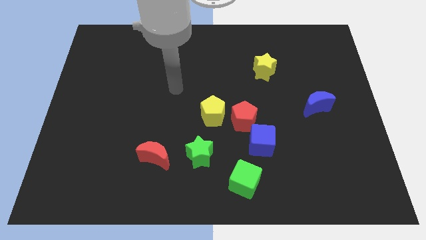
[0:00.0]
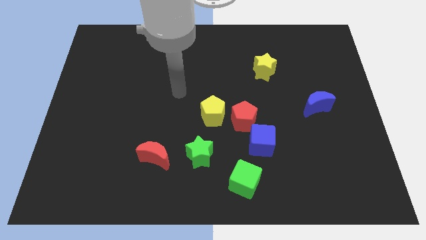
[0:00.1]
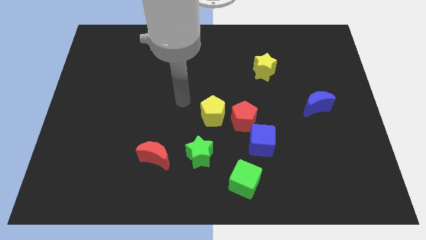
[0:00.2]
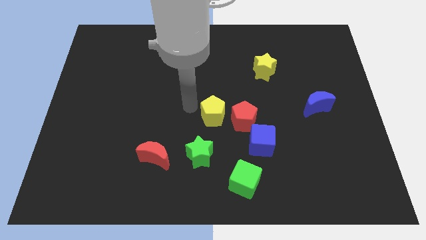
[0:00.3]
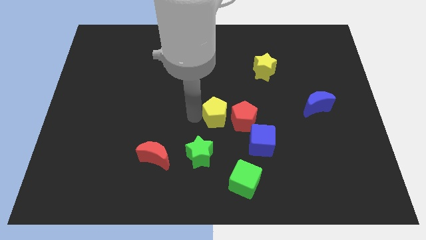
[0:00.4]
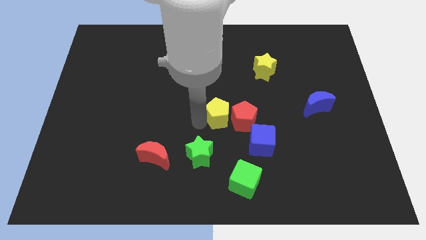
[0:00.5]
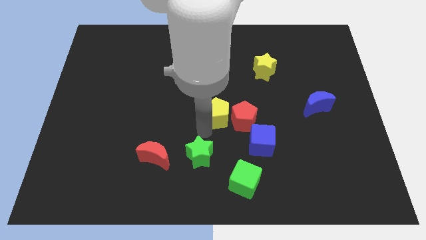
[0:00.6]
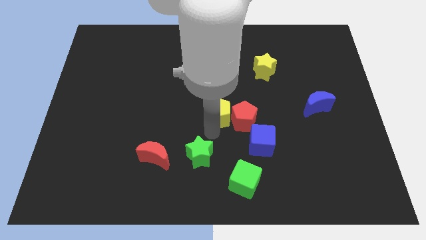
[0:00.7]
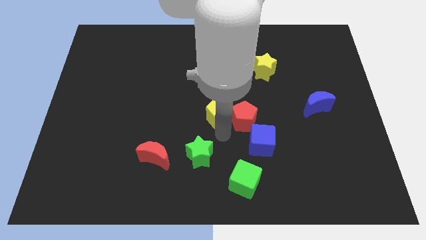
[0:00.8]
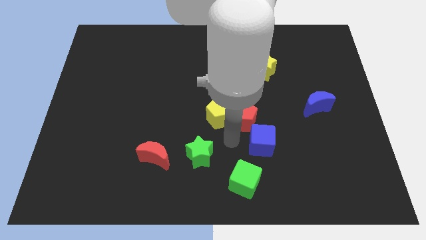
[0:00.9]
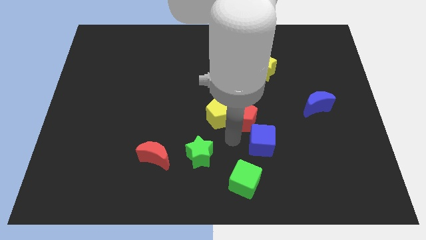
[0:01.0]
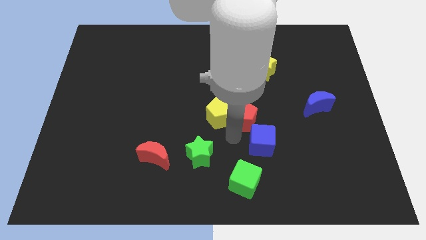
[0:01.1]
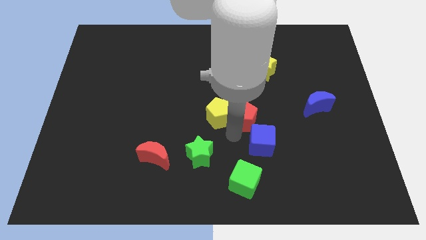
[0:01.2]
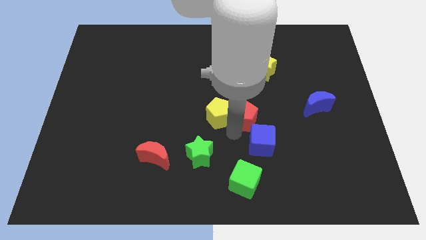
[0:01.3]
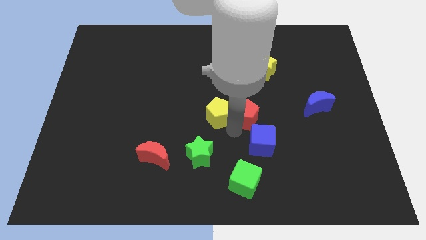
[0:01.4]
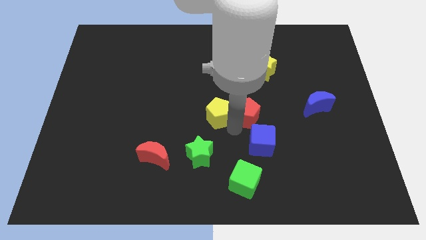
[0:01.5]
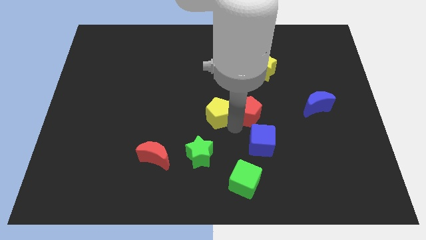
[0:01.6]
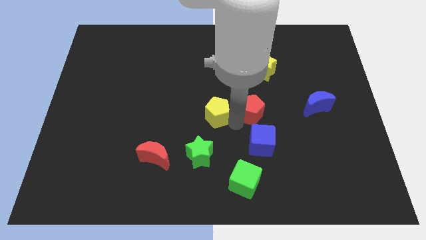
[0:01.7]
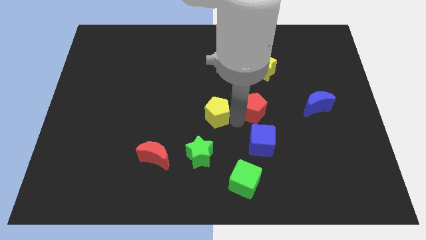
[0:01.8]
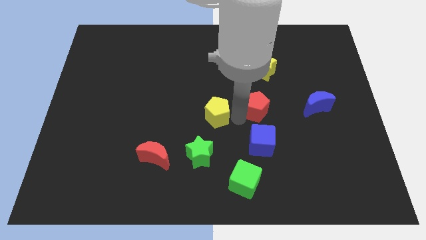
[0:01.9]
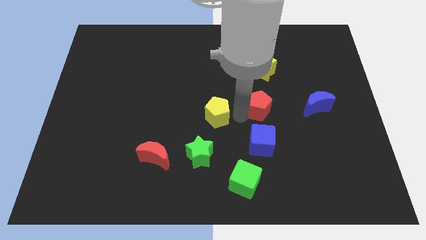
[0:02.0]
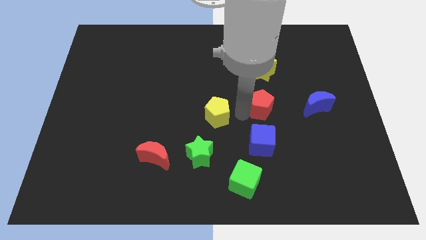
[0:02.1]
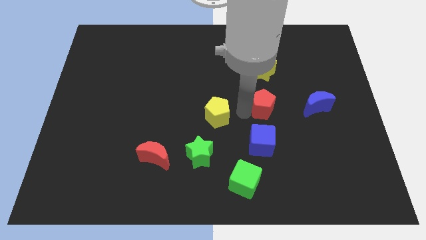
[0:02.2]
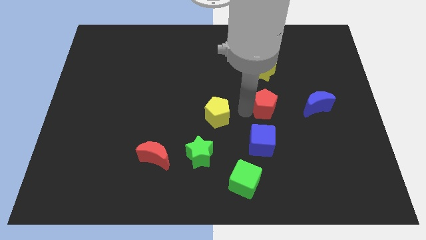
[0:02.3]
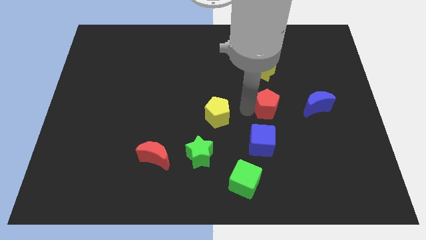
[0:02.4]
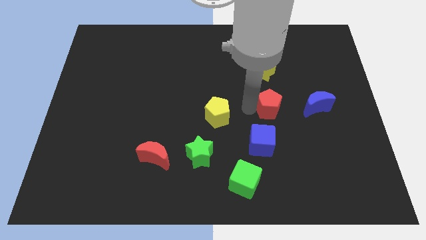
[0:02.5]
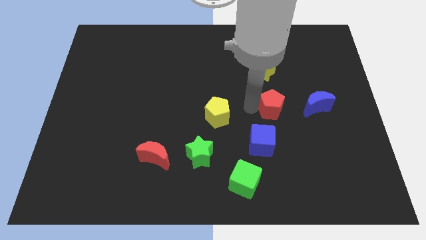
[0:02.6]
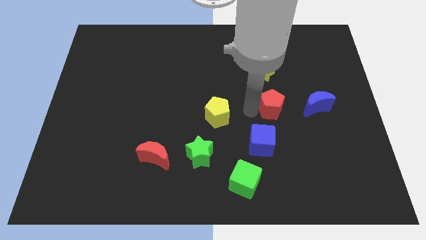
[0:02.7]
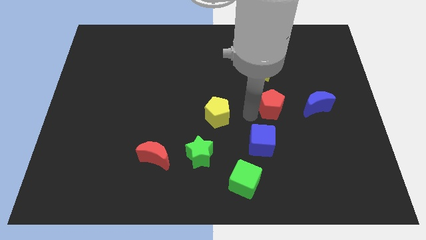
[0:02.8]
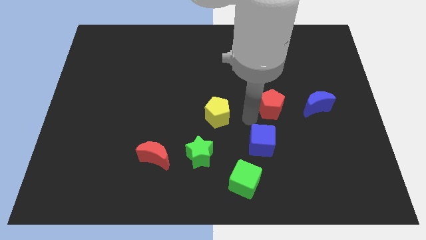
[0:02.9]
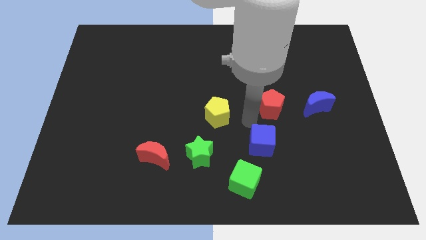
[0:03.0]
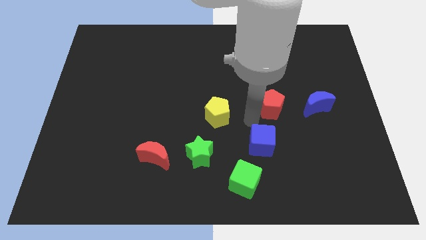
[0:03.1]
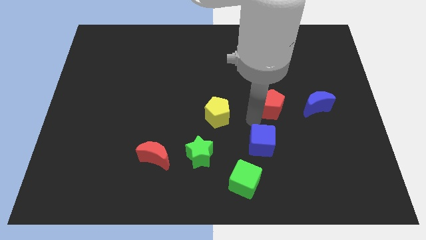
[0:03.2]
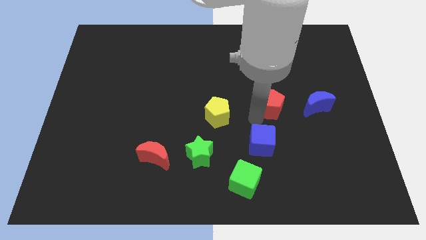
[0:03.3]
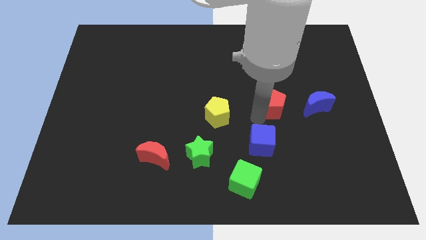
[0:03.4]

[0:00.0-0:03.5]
separate the red pentagon from the blue cube and yellow pentagon

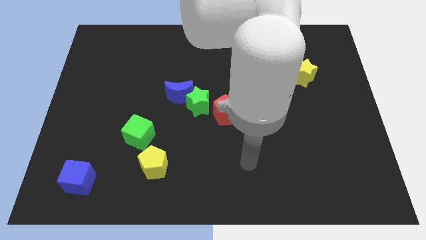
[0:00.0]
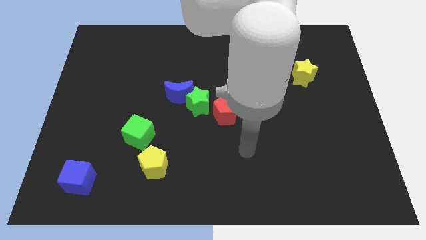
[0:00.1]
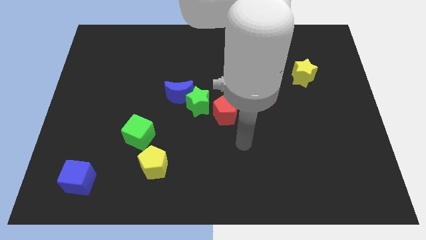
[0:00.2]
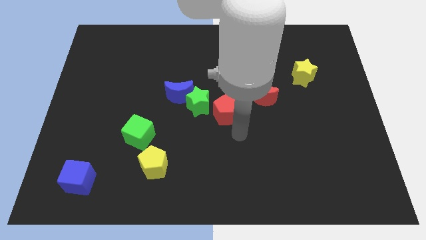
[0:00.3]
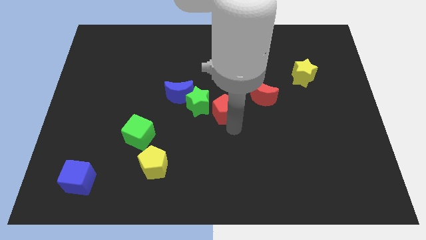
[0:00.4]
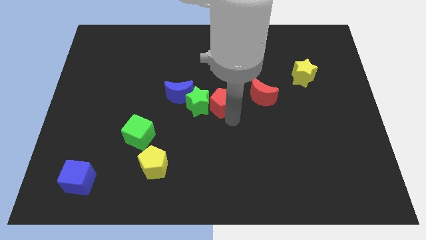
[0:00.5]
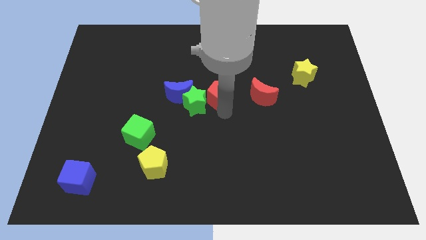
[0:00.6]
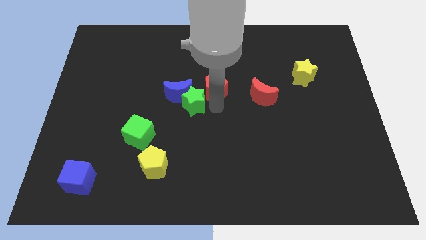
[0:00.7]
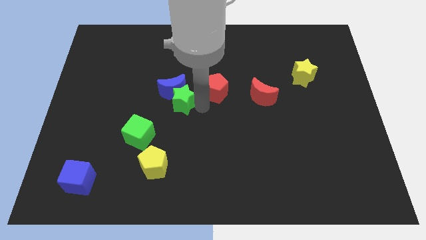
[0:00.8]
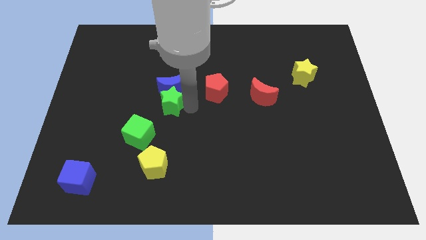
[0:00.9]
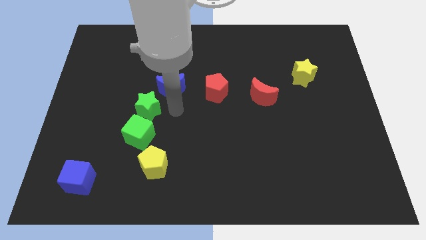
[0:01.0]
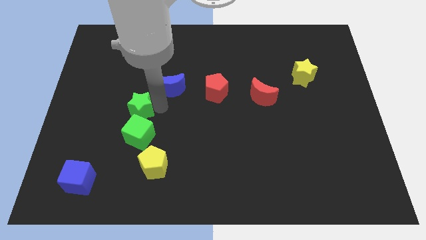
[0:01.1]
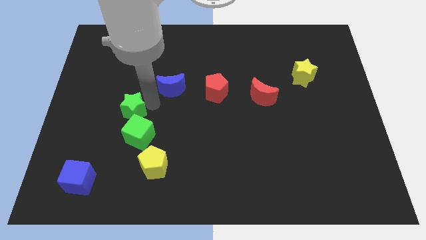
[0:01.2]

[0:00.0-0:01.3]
separate the blue moon from the green star

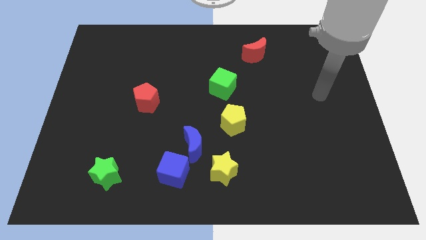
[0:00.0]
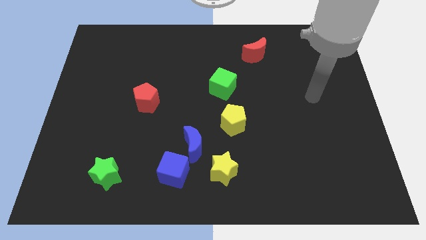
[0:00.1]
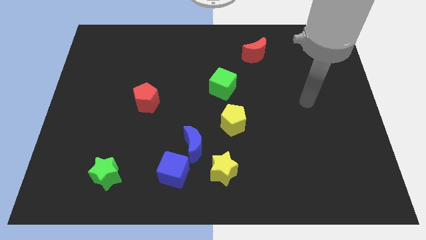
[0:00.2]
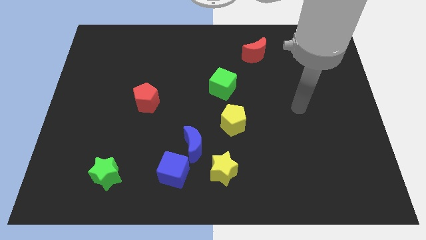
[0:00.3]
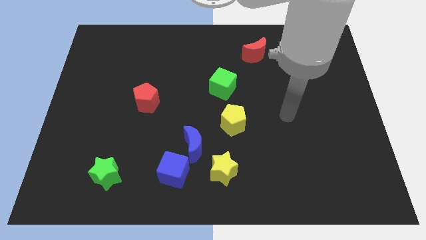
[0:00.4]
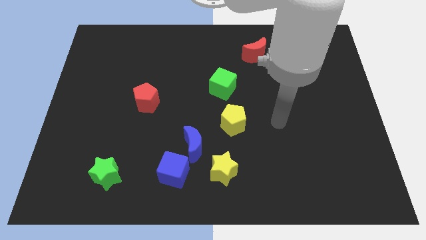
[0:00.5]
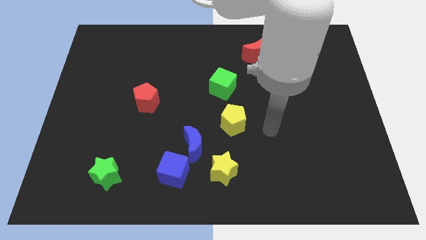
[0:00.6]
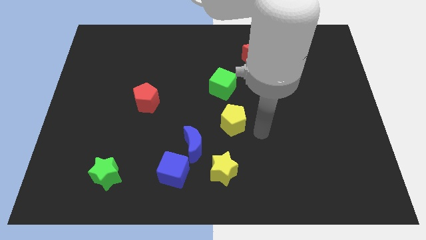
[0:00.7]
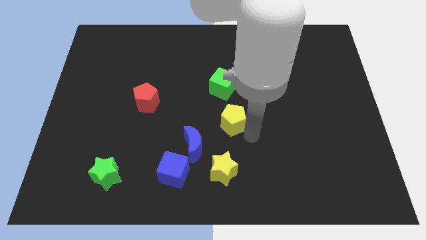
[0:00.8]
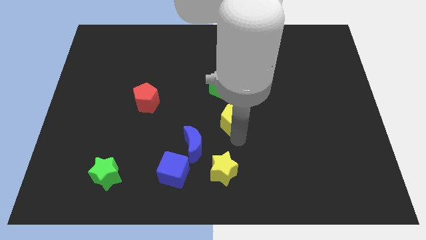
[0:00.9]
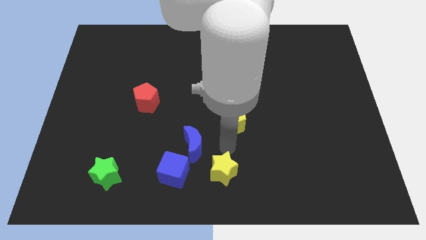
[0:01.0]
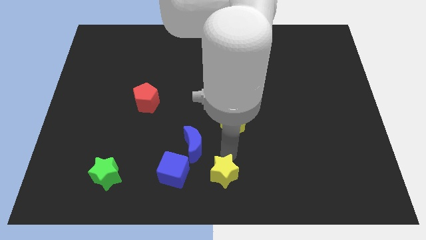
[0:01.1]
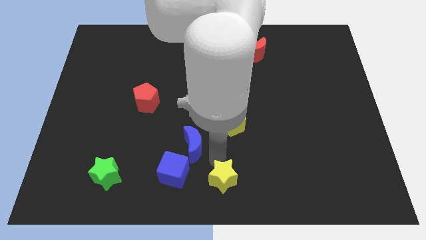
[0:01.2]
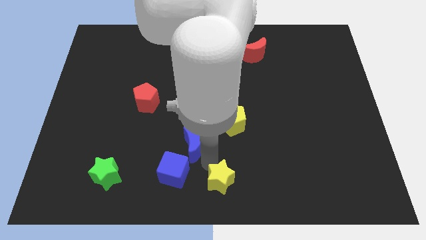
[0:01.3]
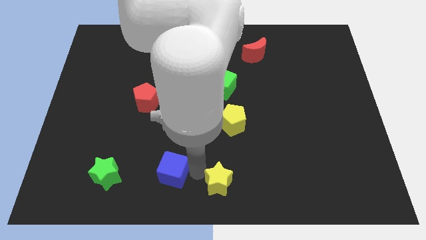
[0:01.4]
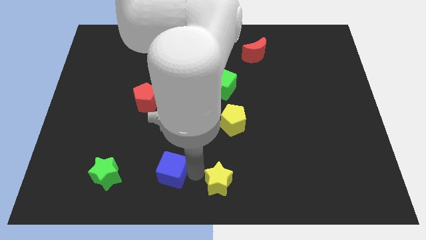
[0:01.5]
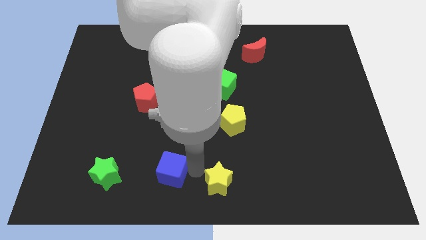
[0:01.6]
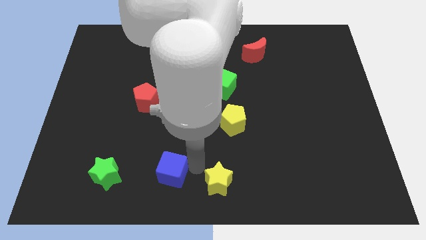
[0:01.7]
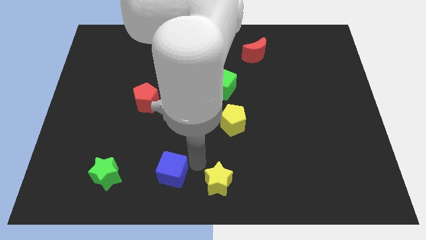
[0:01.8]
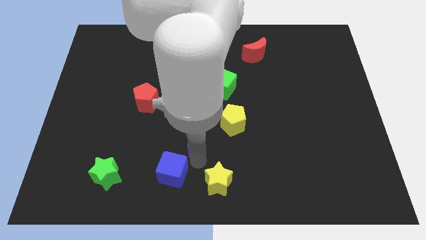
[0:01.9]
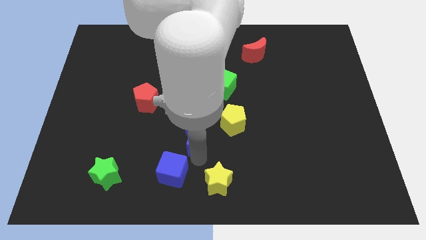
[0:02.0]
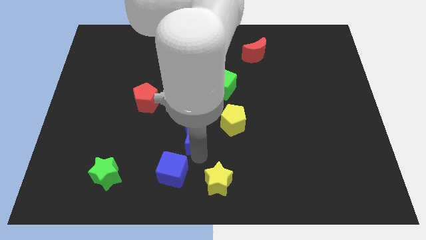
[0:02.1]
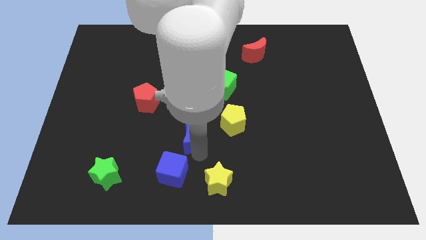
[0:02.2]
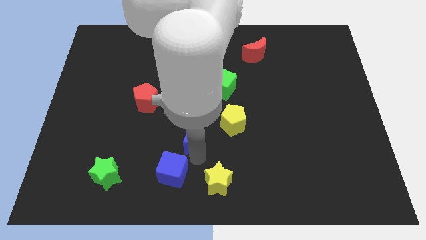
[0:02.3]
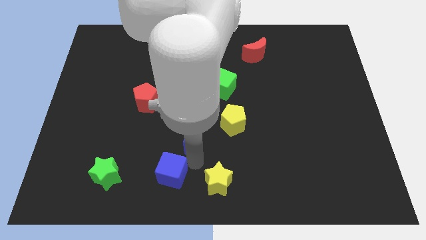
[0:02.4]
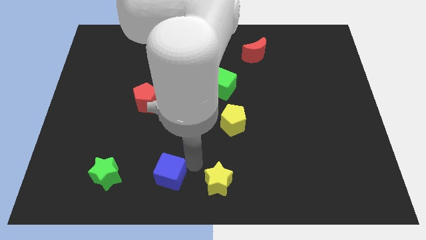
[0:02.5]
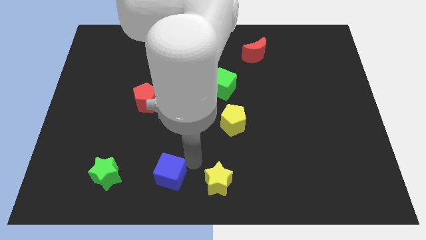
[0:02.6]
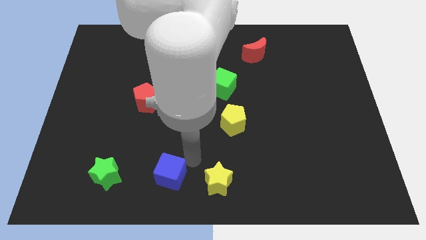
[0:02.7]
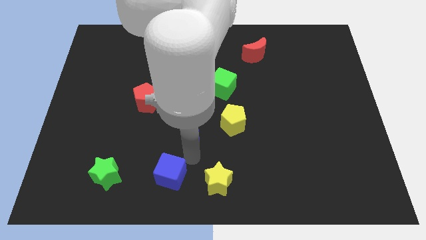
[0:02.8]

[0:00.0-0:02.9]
separate the blue moon from the blue cube and yellow star

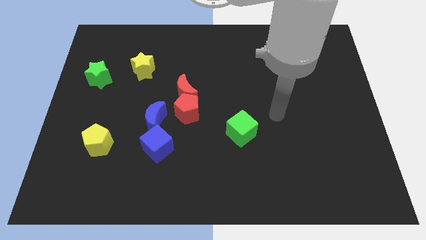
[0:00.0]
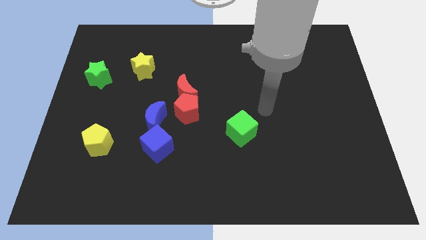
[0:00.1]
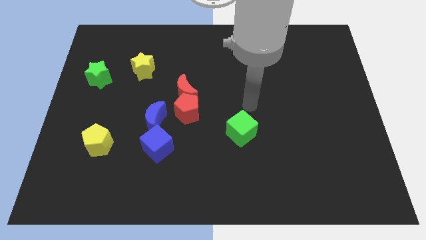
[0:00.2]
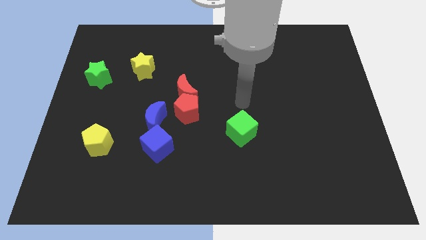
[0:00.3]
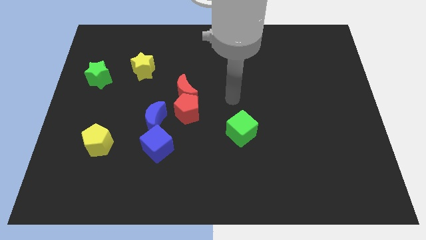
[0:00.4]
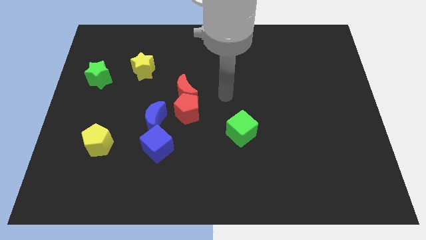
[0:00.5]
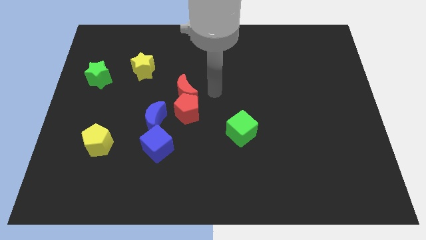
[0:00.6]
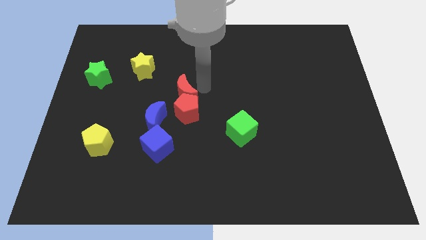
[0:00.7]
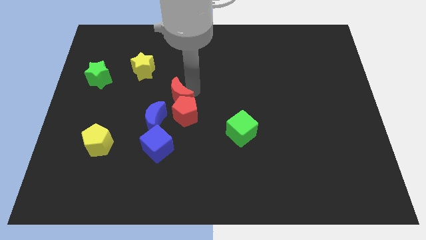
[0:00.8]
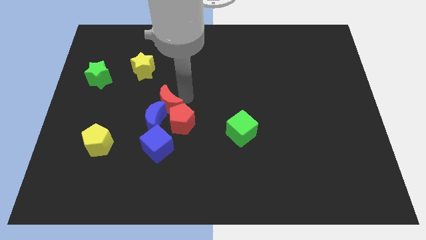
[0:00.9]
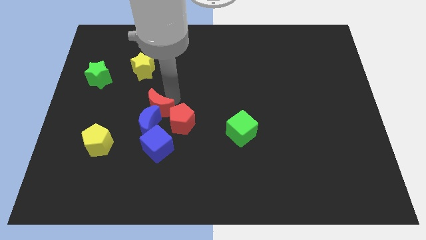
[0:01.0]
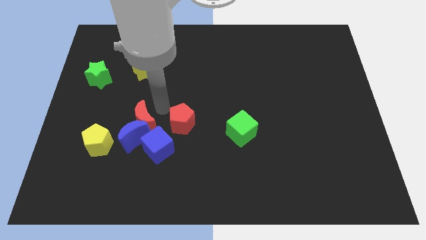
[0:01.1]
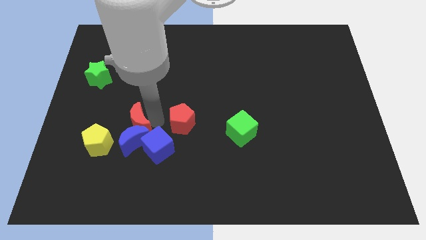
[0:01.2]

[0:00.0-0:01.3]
pull the red pentagon apart from the red moon and blue moon

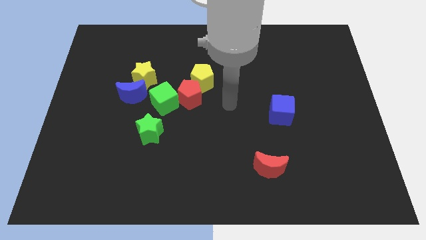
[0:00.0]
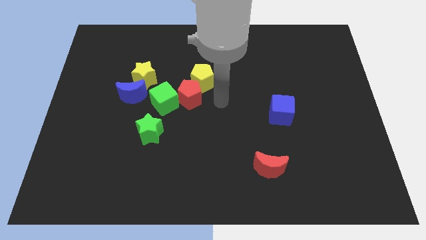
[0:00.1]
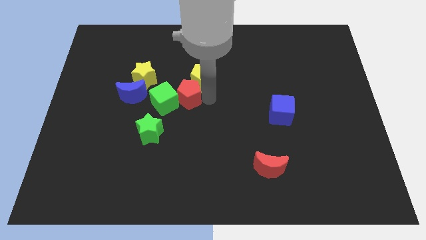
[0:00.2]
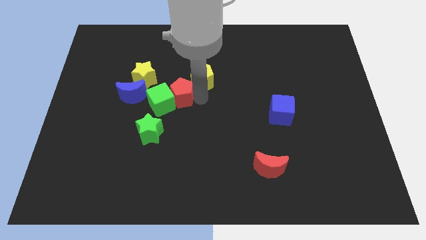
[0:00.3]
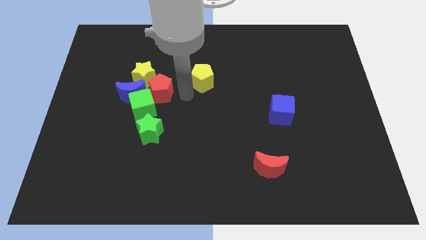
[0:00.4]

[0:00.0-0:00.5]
pull the yellow pentagon apart from the red pentagon
